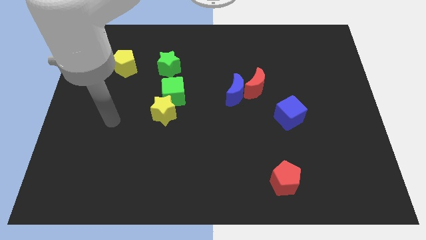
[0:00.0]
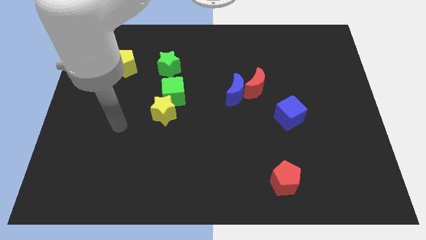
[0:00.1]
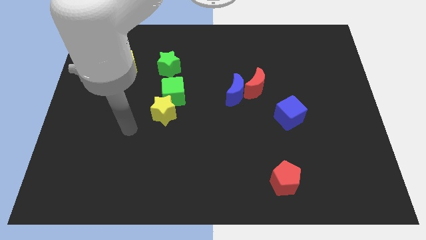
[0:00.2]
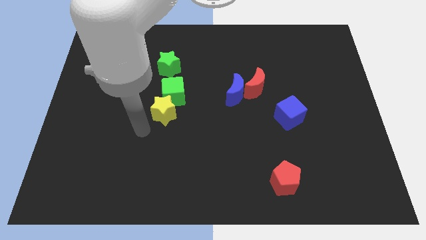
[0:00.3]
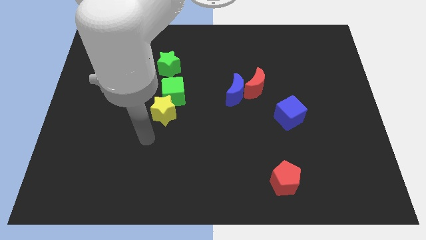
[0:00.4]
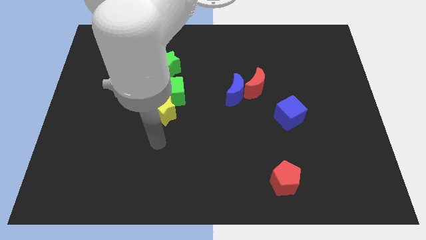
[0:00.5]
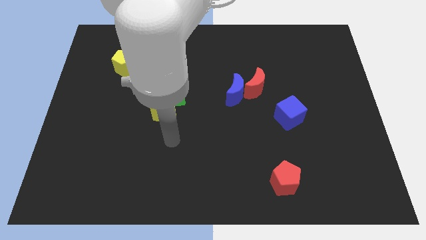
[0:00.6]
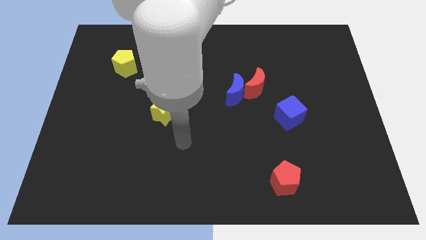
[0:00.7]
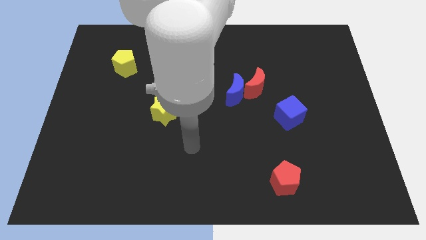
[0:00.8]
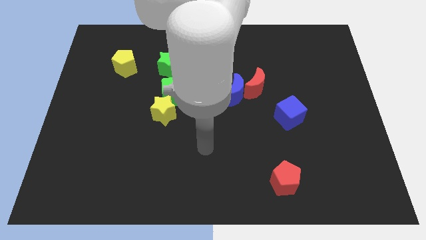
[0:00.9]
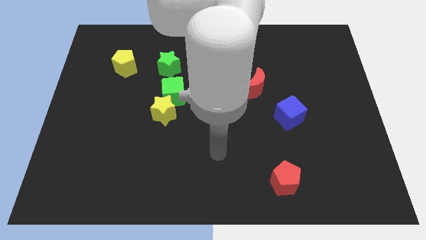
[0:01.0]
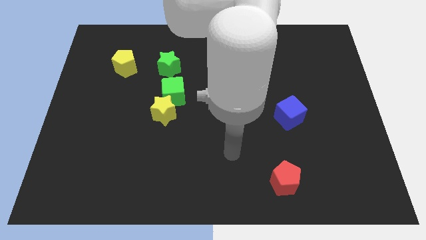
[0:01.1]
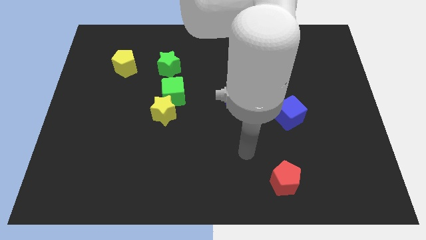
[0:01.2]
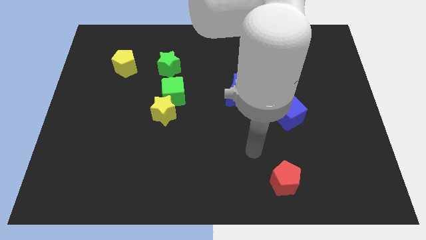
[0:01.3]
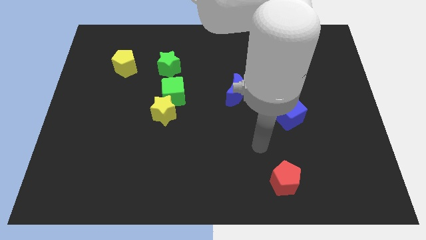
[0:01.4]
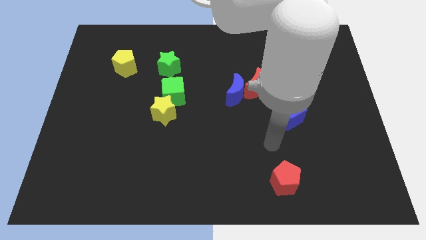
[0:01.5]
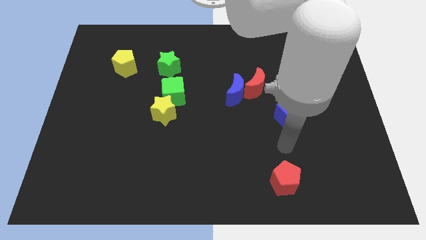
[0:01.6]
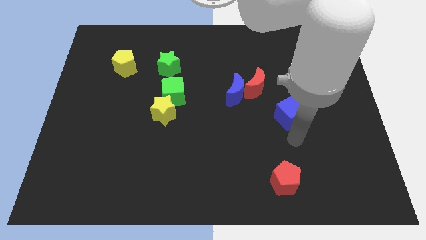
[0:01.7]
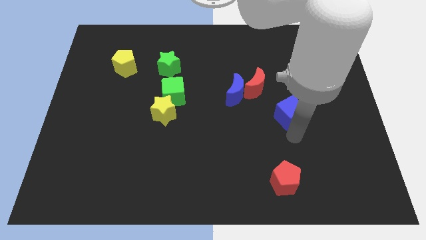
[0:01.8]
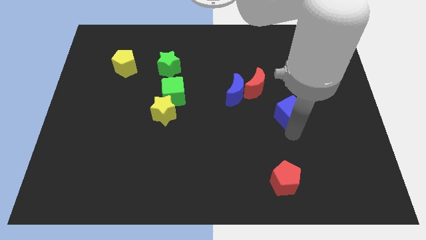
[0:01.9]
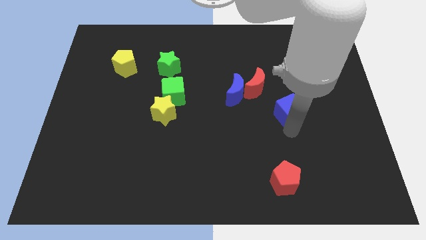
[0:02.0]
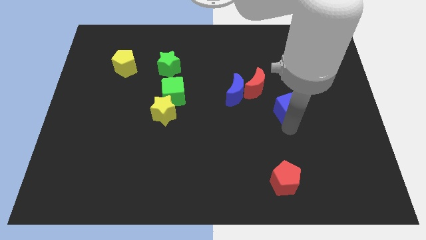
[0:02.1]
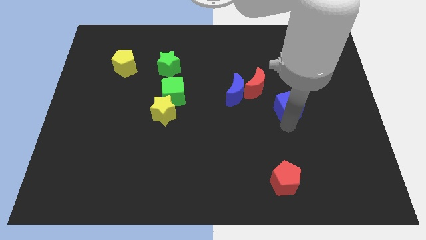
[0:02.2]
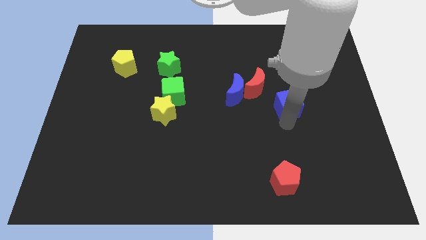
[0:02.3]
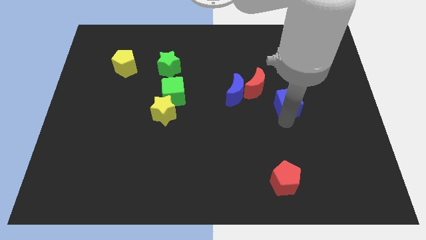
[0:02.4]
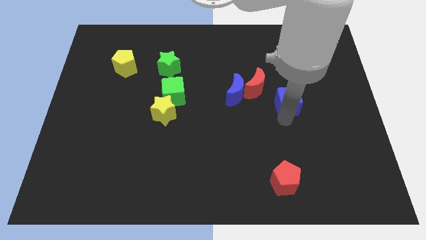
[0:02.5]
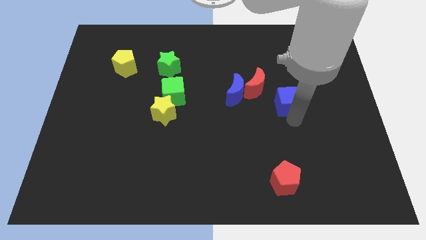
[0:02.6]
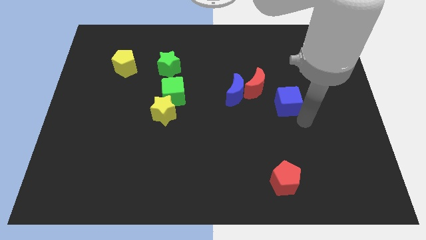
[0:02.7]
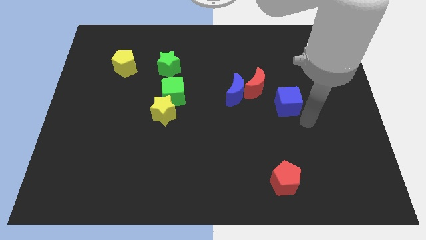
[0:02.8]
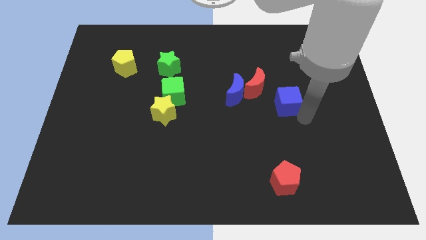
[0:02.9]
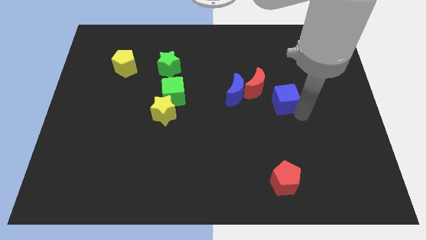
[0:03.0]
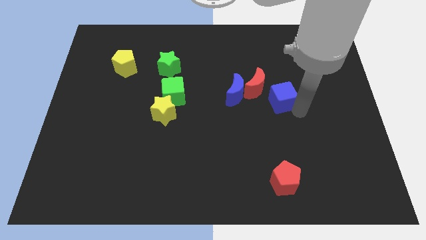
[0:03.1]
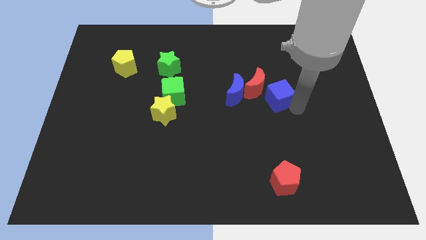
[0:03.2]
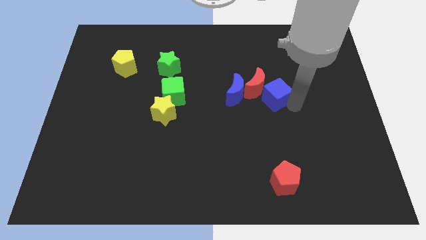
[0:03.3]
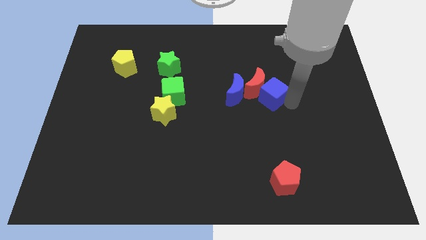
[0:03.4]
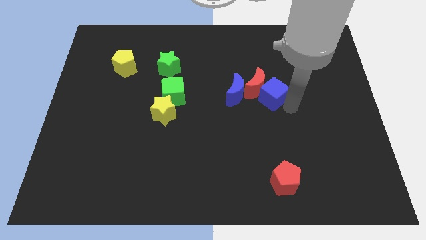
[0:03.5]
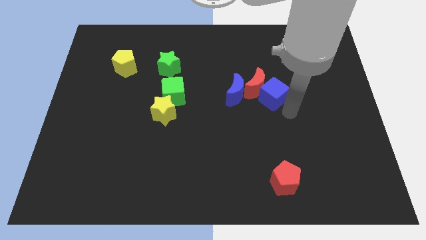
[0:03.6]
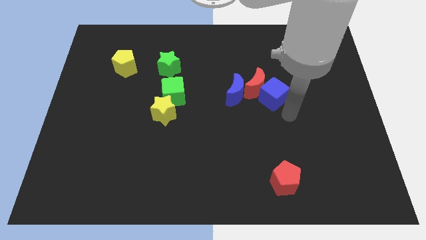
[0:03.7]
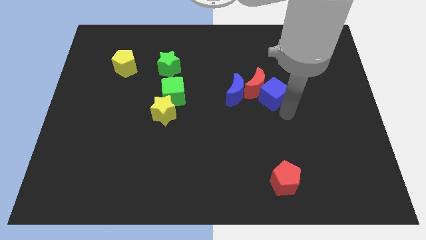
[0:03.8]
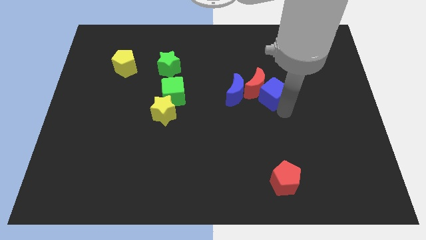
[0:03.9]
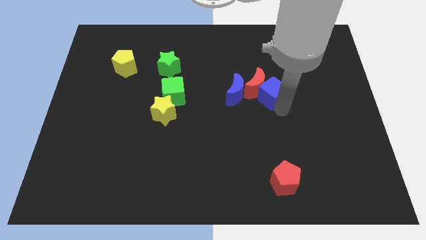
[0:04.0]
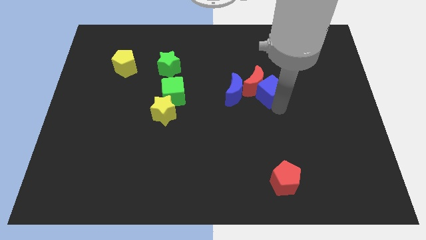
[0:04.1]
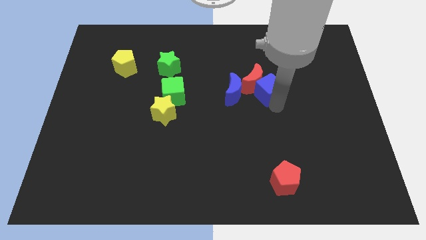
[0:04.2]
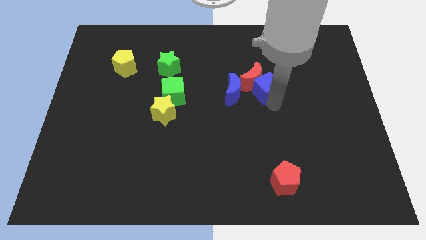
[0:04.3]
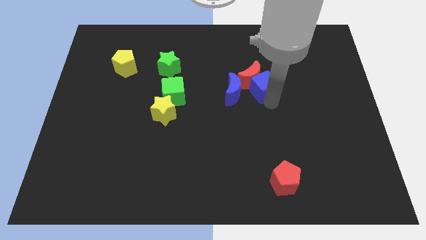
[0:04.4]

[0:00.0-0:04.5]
put the blue cube to the top right of the blue moon

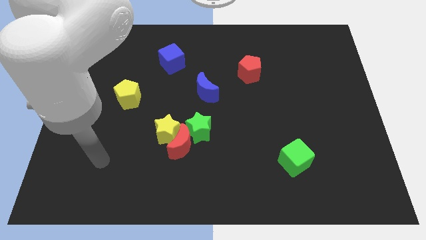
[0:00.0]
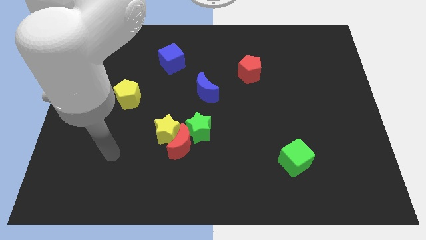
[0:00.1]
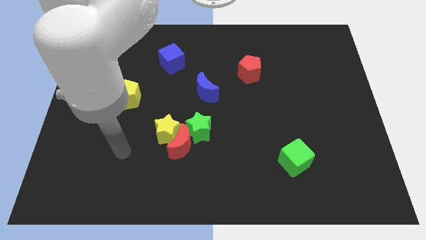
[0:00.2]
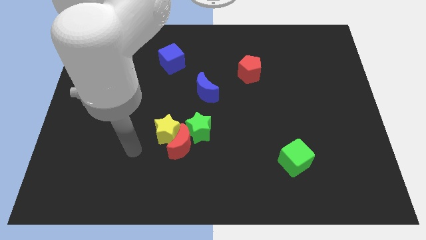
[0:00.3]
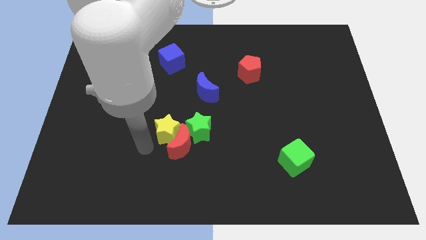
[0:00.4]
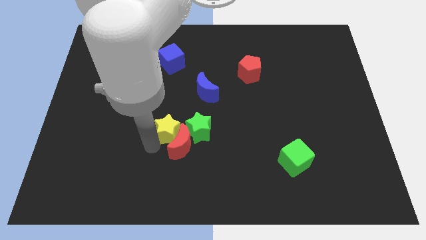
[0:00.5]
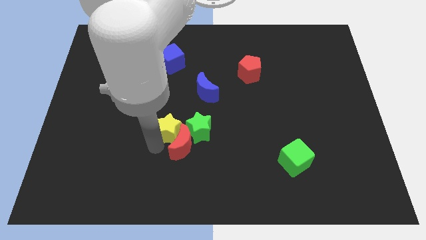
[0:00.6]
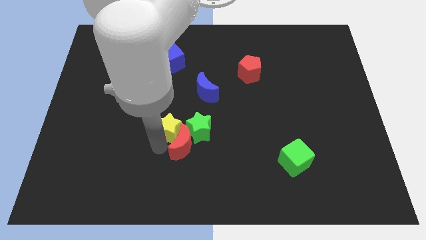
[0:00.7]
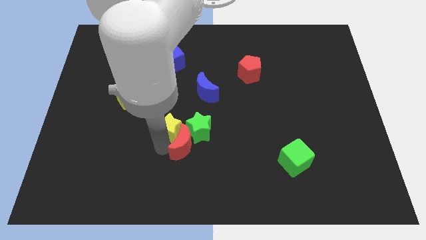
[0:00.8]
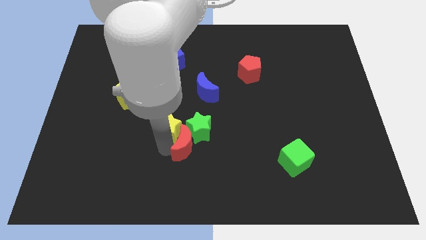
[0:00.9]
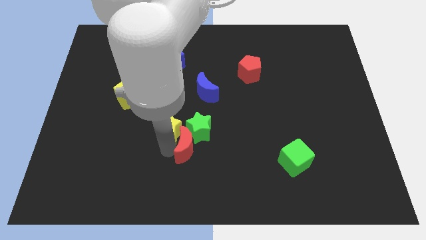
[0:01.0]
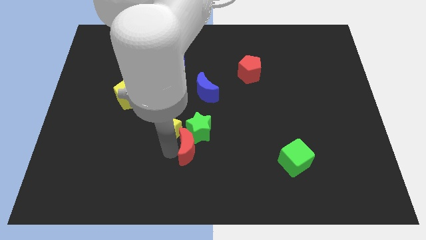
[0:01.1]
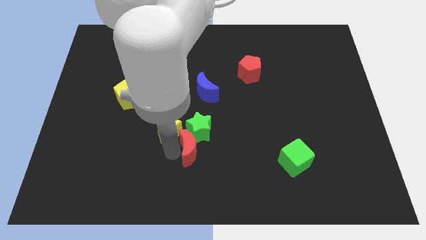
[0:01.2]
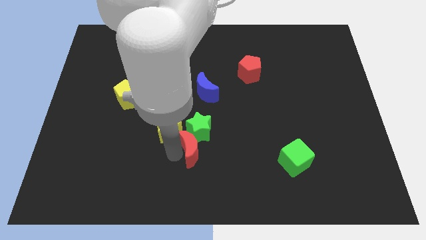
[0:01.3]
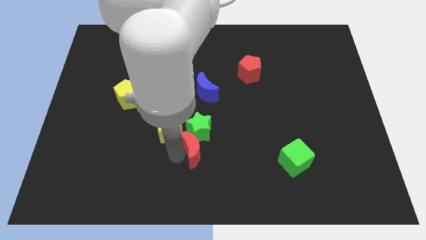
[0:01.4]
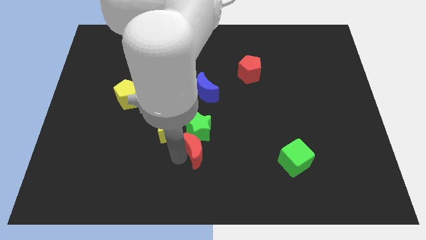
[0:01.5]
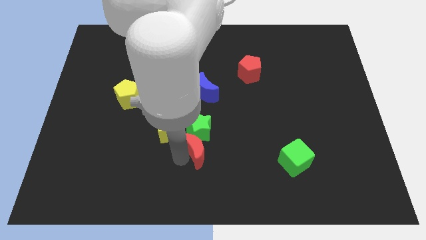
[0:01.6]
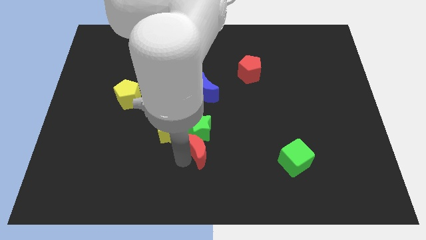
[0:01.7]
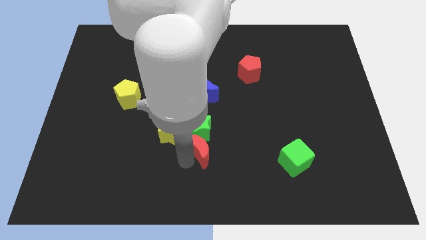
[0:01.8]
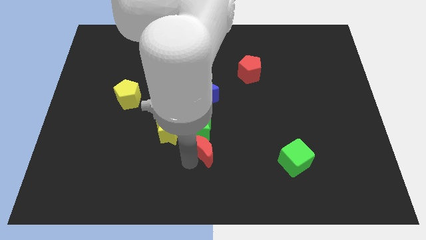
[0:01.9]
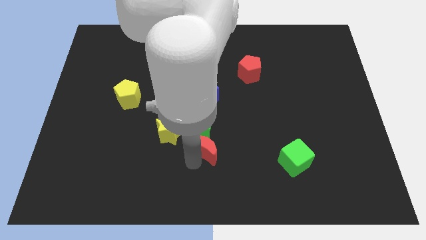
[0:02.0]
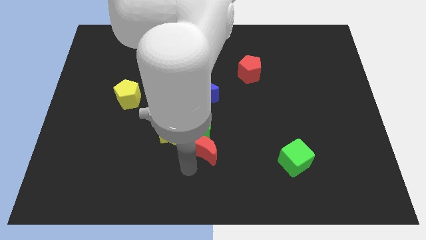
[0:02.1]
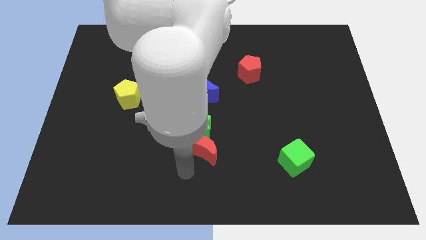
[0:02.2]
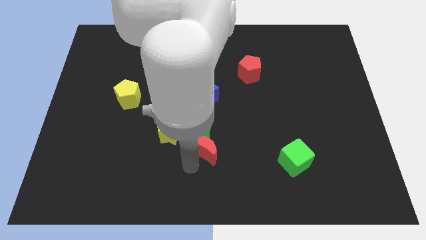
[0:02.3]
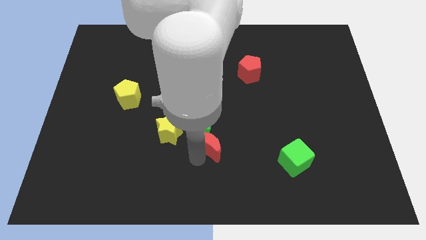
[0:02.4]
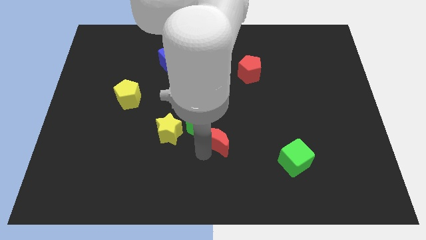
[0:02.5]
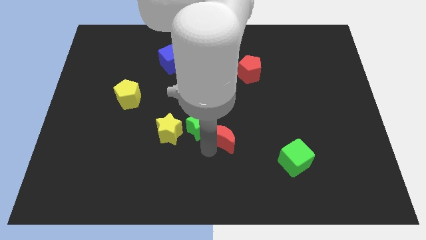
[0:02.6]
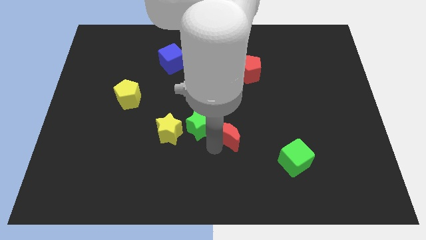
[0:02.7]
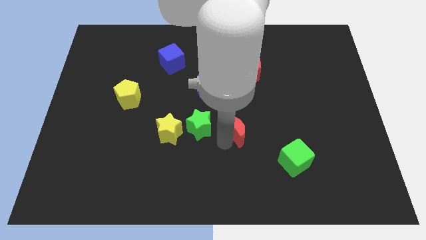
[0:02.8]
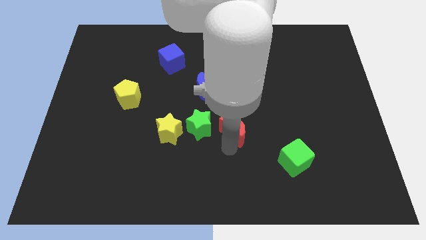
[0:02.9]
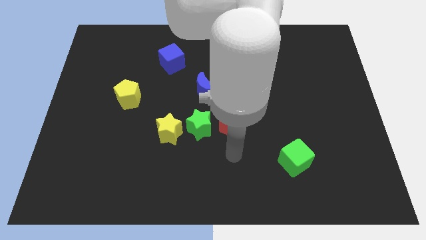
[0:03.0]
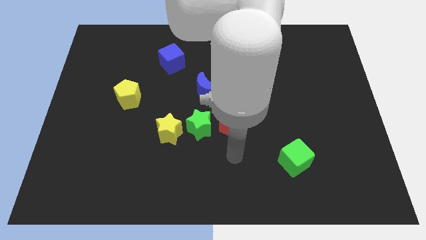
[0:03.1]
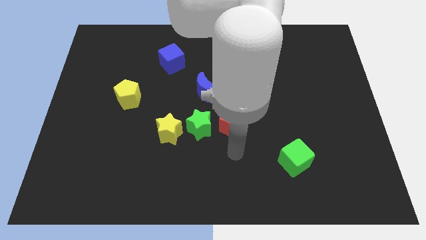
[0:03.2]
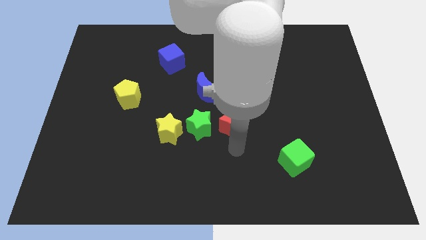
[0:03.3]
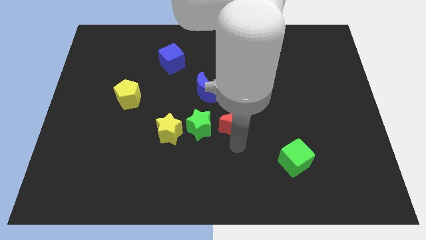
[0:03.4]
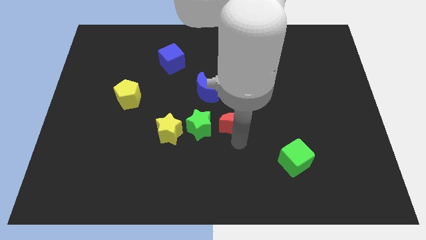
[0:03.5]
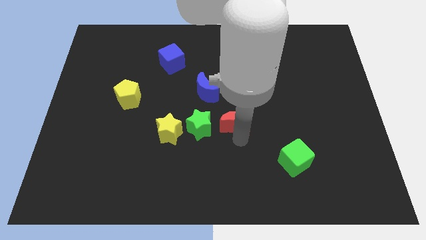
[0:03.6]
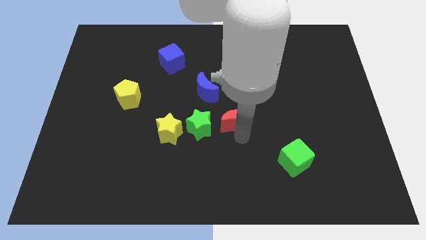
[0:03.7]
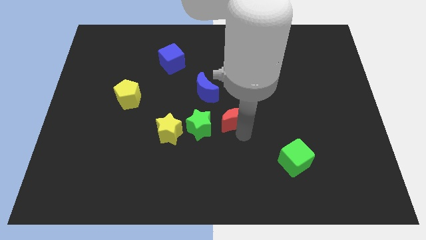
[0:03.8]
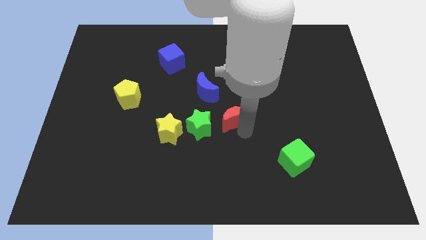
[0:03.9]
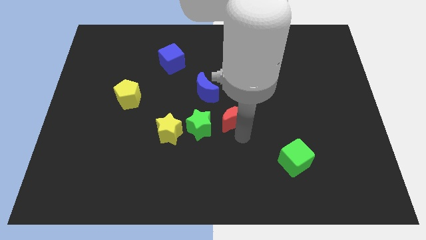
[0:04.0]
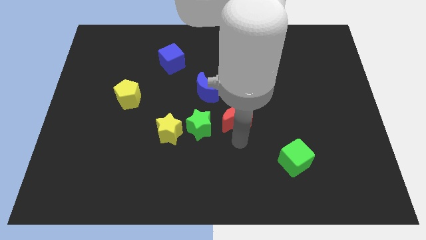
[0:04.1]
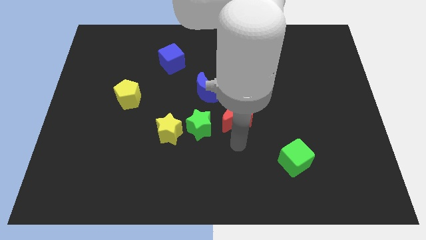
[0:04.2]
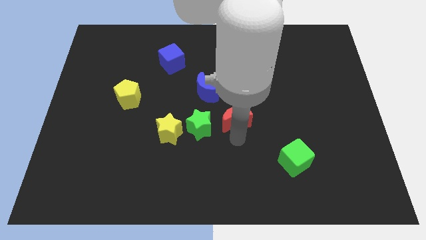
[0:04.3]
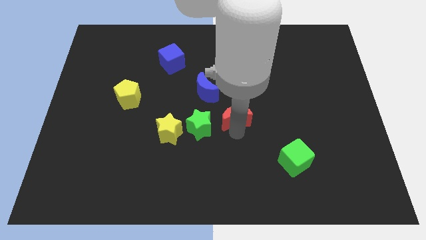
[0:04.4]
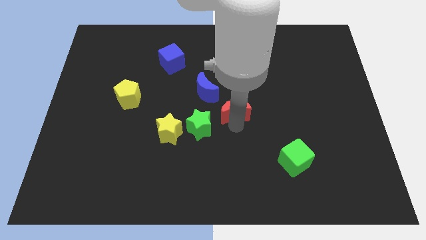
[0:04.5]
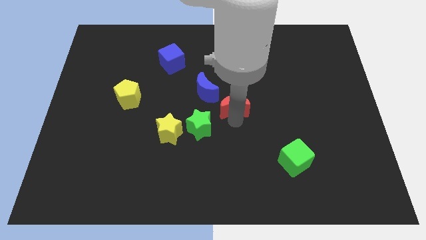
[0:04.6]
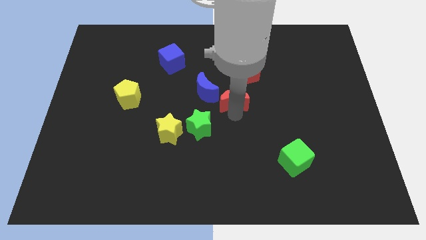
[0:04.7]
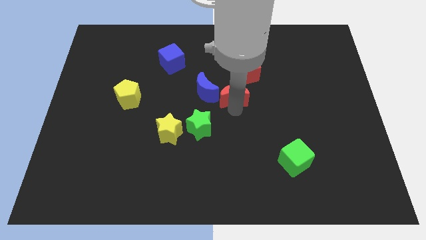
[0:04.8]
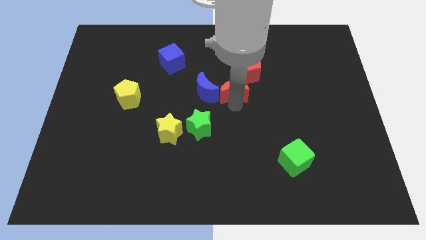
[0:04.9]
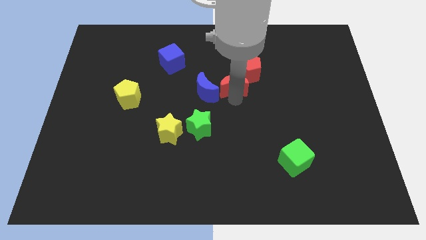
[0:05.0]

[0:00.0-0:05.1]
put the red moon diagonally up and to the right of the blue moon
